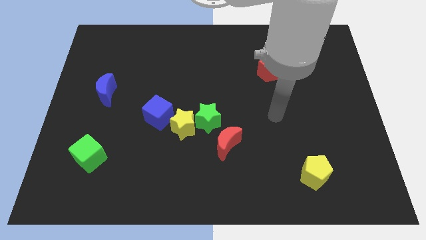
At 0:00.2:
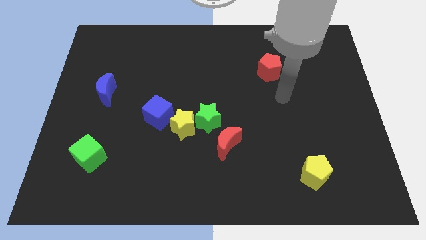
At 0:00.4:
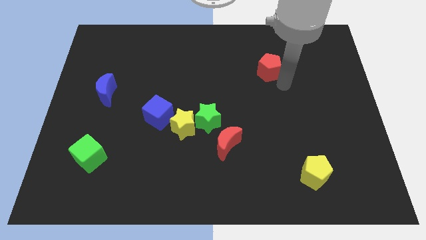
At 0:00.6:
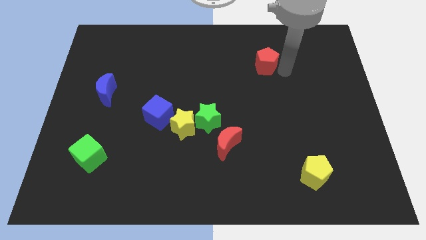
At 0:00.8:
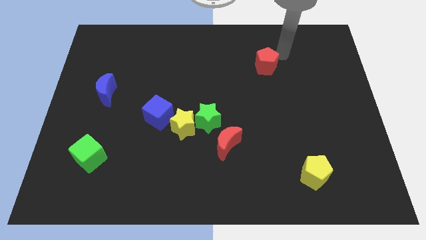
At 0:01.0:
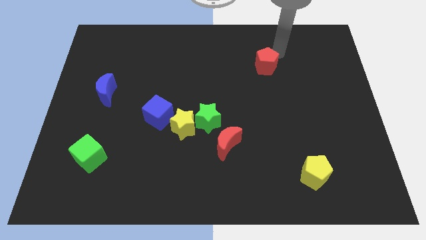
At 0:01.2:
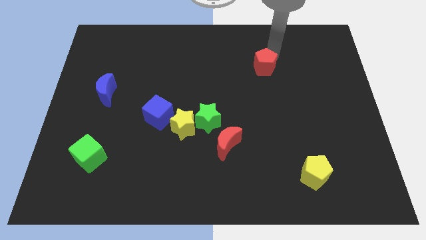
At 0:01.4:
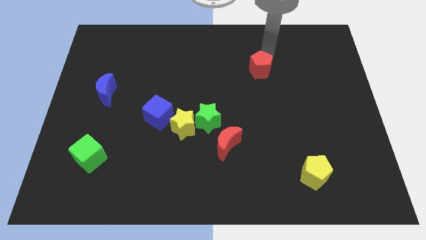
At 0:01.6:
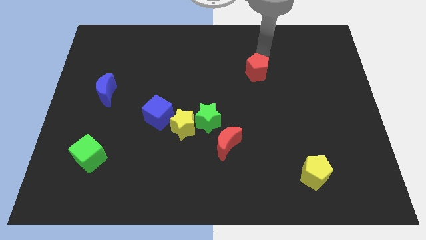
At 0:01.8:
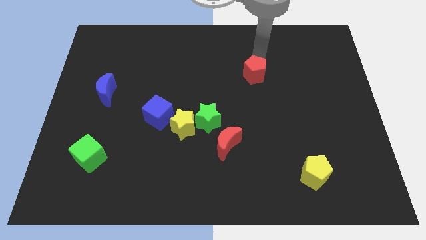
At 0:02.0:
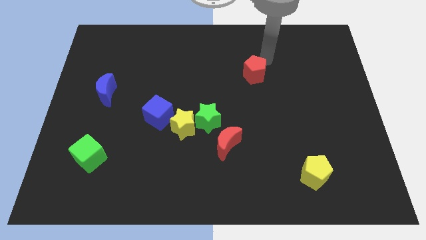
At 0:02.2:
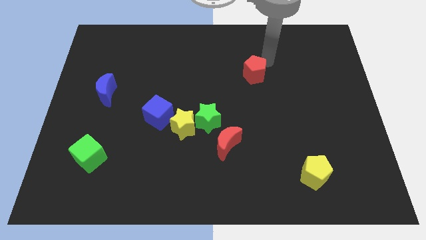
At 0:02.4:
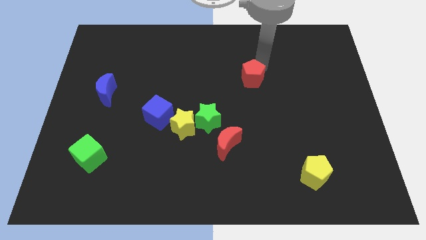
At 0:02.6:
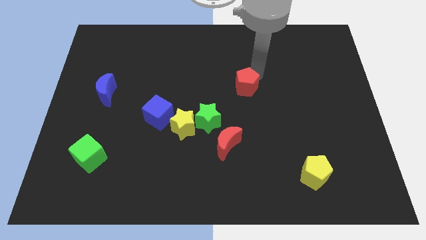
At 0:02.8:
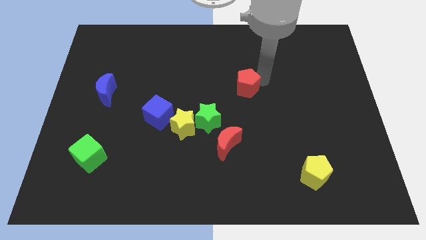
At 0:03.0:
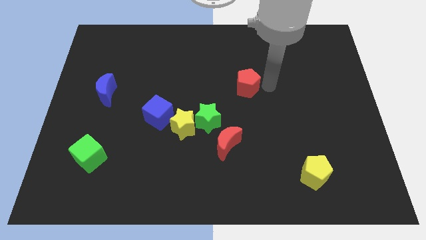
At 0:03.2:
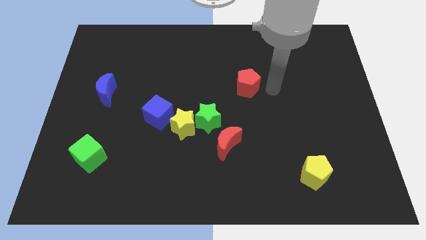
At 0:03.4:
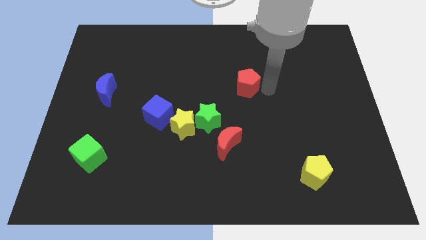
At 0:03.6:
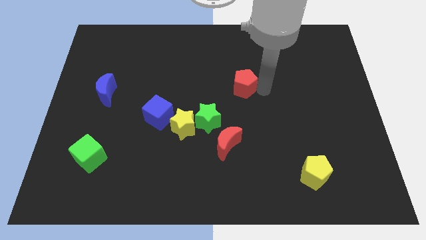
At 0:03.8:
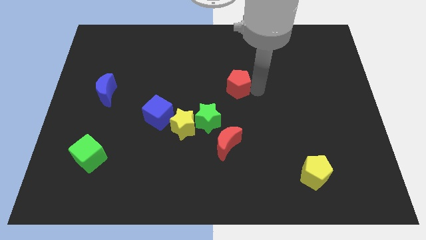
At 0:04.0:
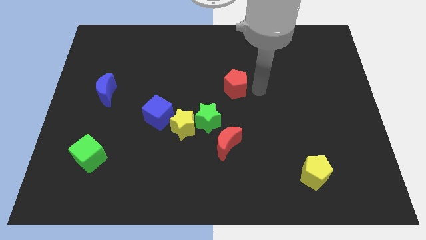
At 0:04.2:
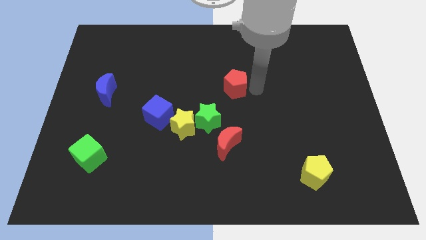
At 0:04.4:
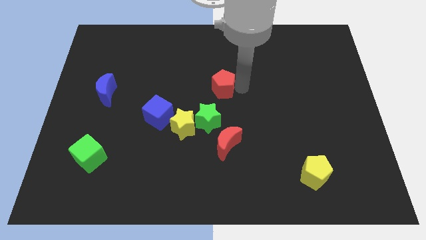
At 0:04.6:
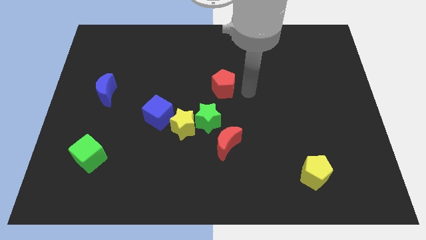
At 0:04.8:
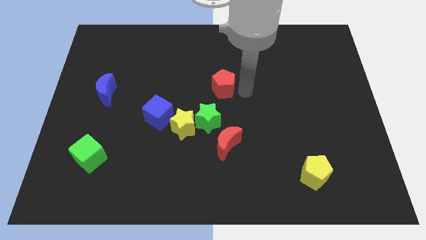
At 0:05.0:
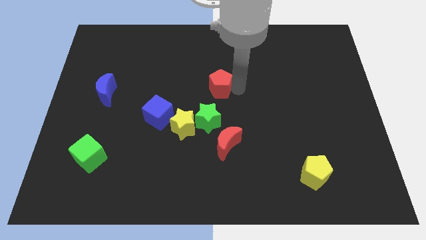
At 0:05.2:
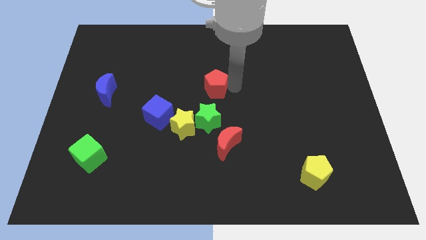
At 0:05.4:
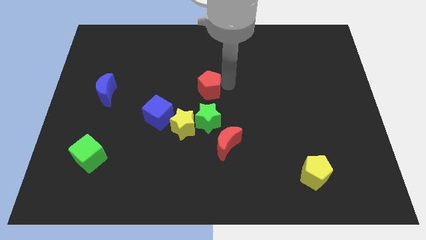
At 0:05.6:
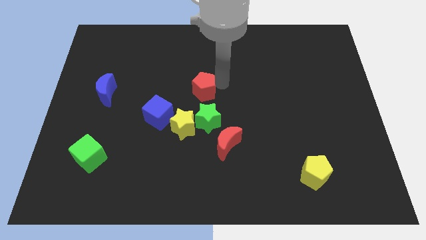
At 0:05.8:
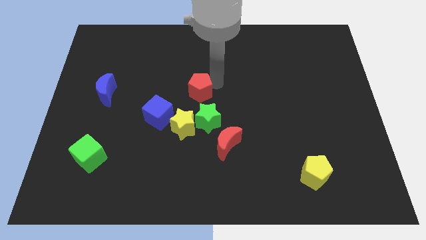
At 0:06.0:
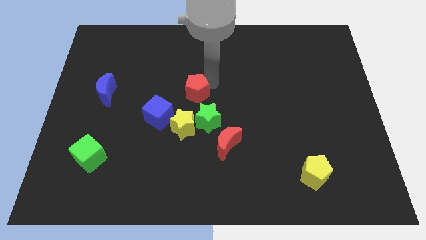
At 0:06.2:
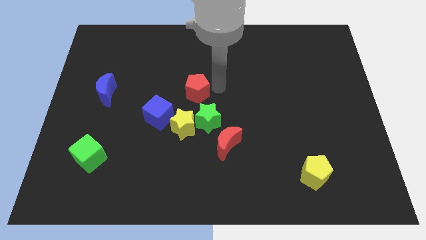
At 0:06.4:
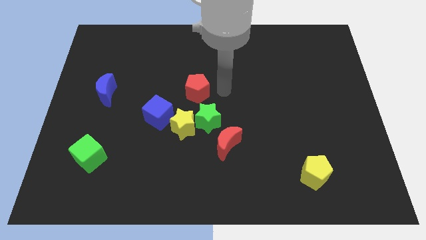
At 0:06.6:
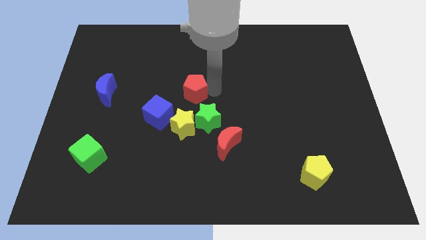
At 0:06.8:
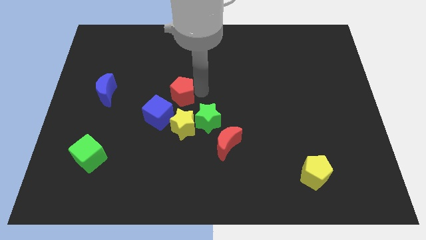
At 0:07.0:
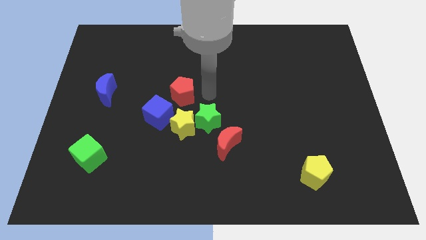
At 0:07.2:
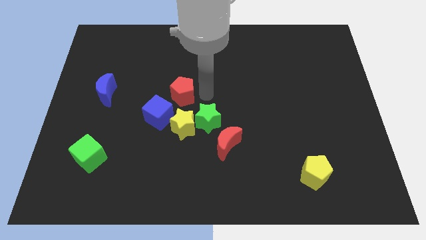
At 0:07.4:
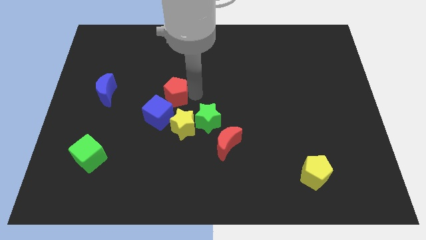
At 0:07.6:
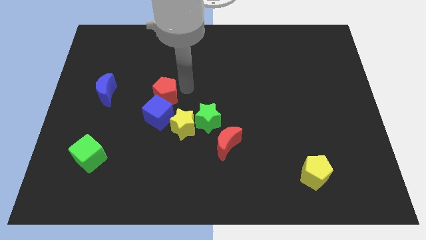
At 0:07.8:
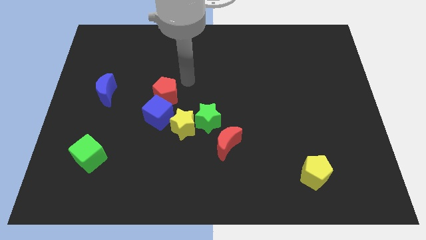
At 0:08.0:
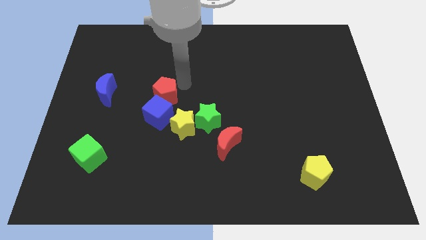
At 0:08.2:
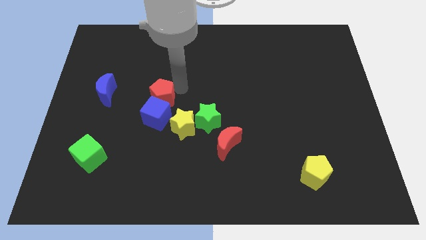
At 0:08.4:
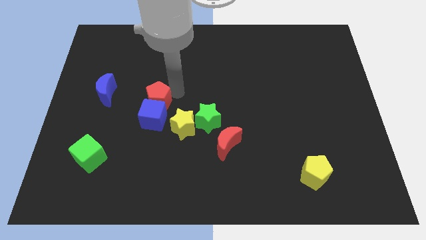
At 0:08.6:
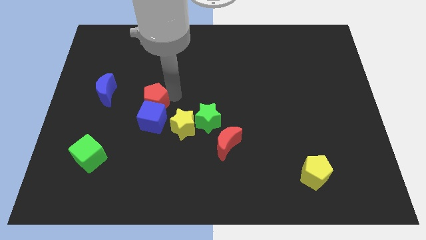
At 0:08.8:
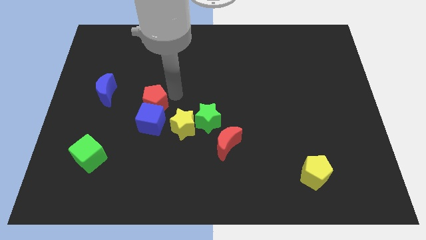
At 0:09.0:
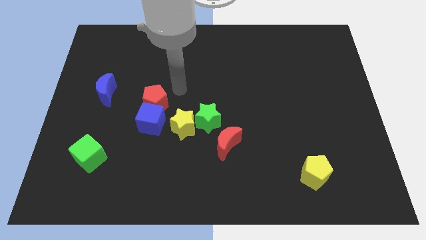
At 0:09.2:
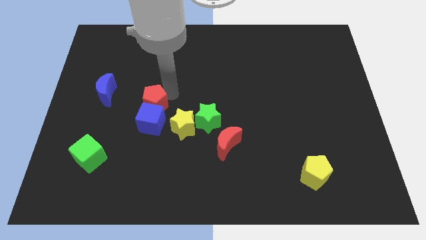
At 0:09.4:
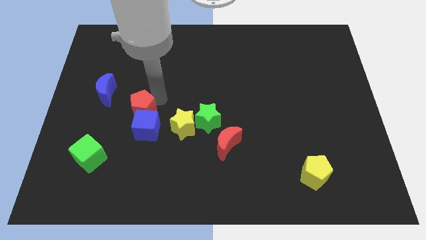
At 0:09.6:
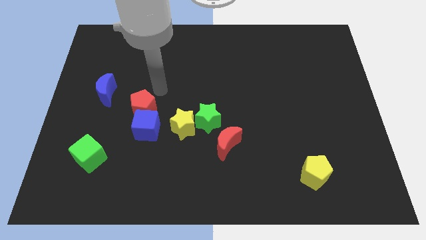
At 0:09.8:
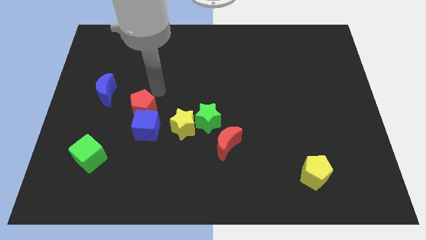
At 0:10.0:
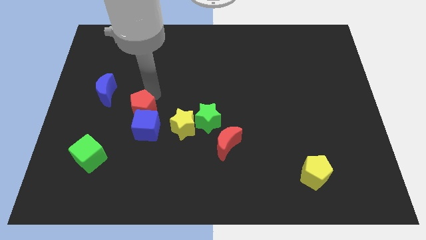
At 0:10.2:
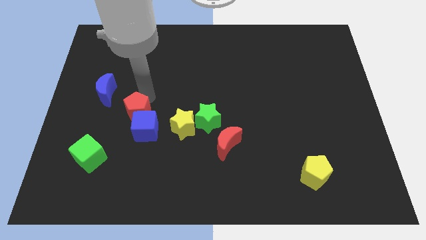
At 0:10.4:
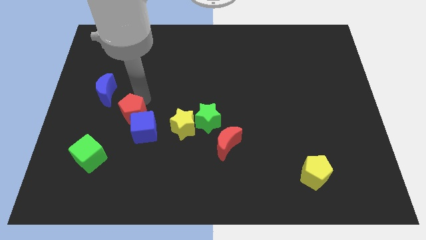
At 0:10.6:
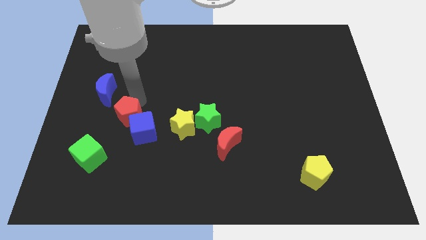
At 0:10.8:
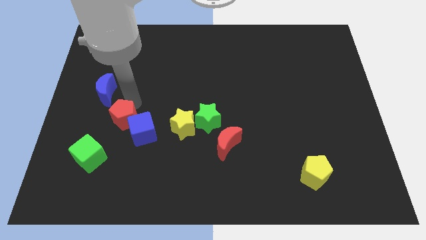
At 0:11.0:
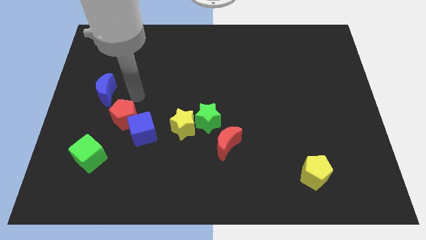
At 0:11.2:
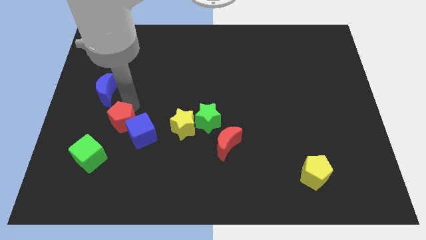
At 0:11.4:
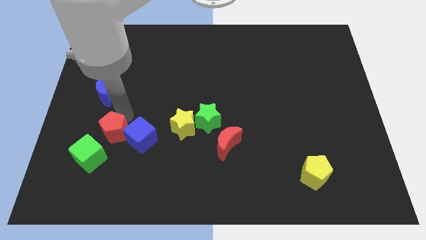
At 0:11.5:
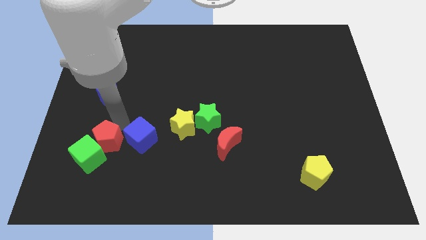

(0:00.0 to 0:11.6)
move the red pentagon towards the green cube

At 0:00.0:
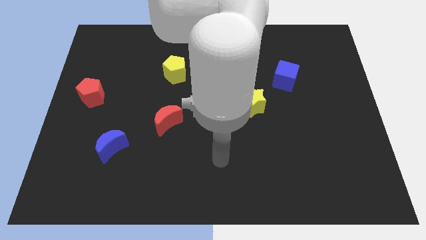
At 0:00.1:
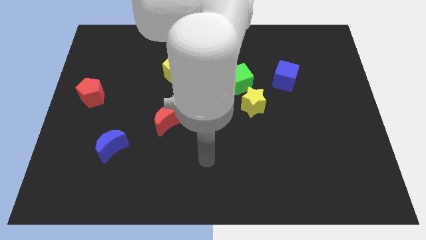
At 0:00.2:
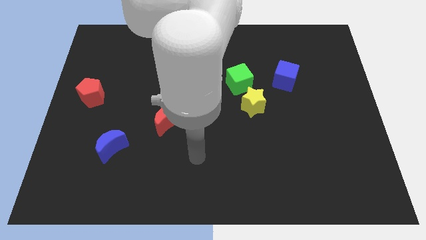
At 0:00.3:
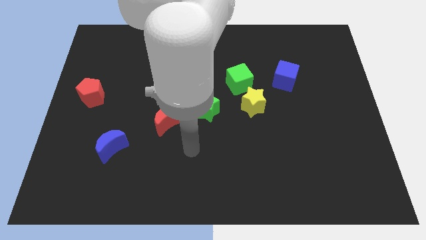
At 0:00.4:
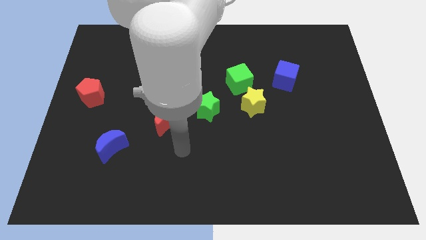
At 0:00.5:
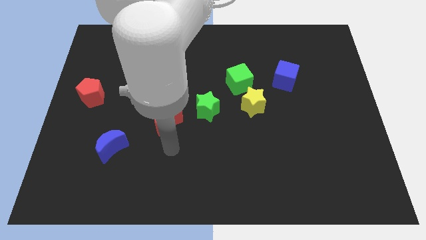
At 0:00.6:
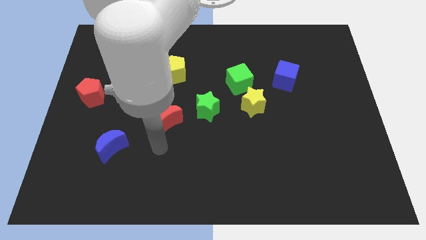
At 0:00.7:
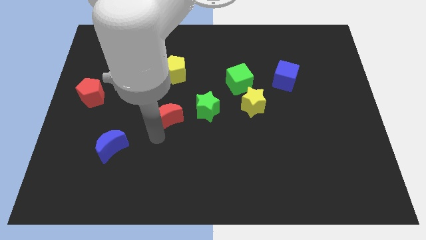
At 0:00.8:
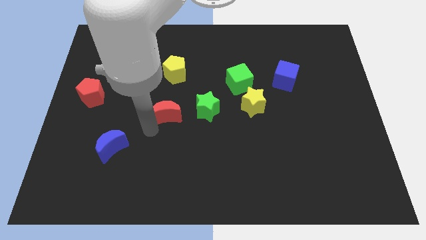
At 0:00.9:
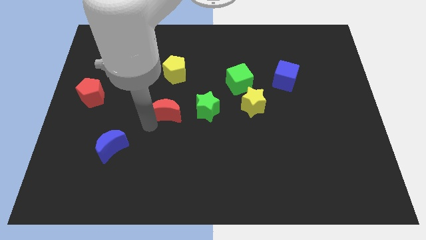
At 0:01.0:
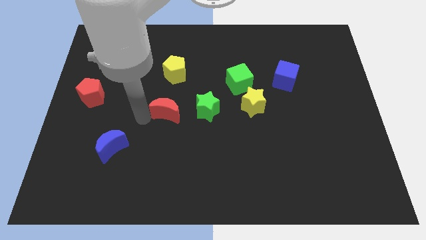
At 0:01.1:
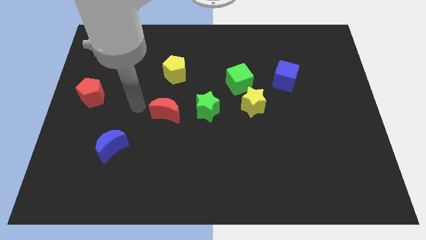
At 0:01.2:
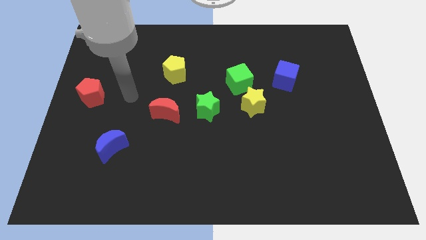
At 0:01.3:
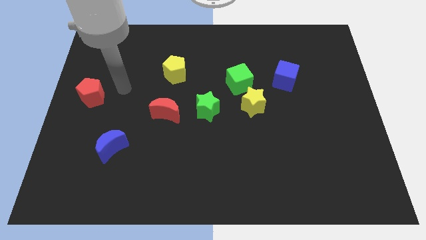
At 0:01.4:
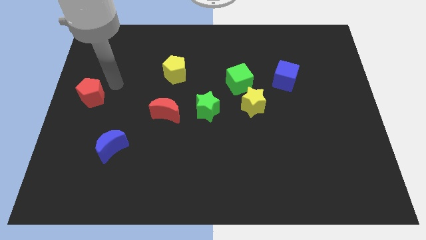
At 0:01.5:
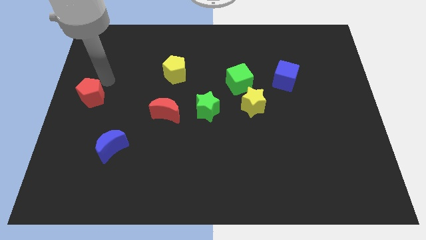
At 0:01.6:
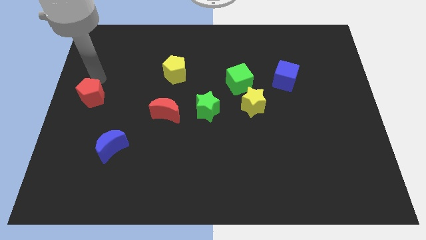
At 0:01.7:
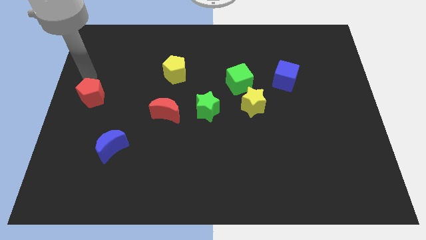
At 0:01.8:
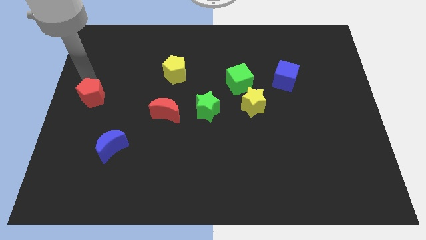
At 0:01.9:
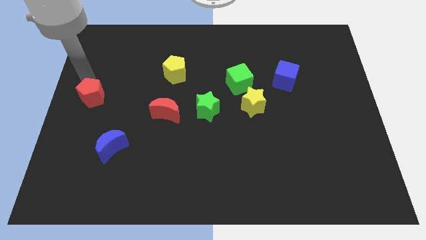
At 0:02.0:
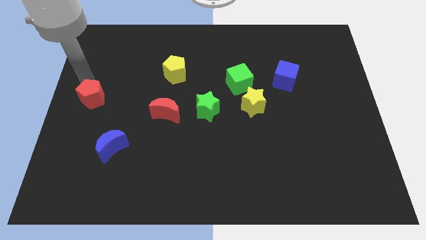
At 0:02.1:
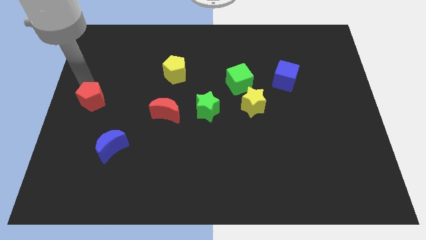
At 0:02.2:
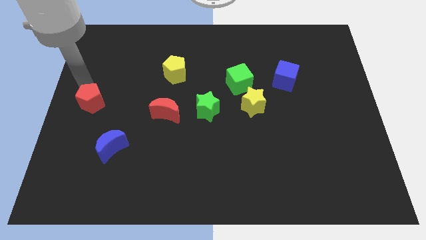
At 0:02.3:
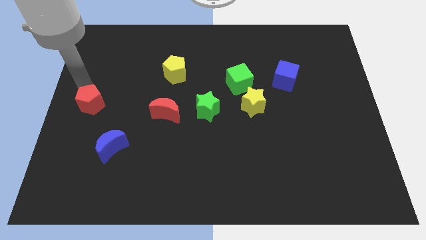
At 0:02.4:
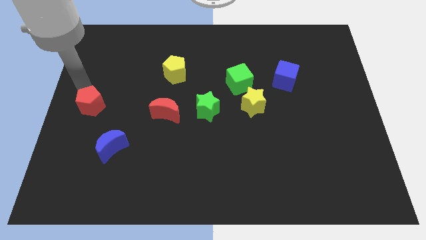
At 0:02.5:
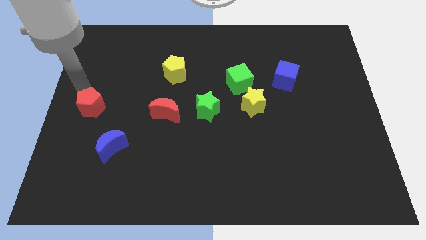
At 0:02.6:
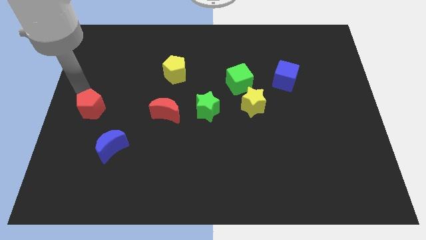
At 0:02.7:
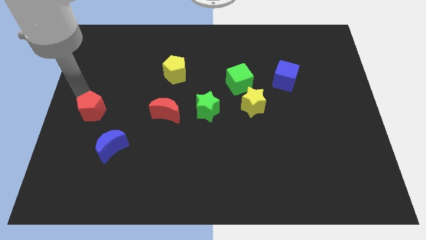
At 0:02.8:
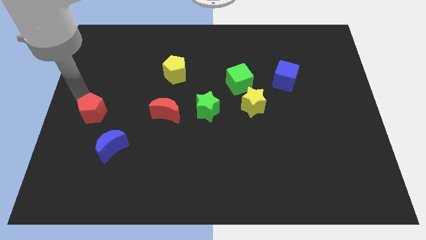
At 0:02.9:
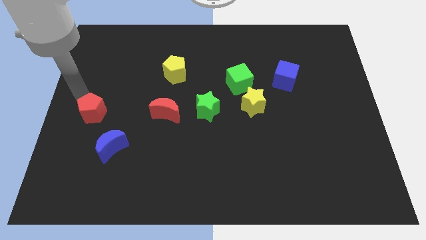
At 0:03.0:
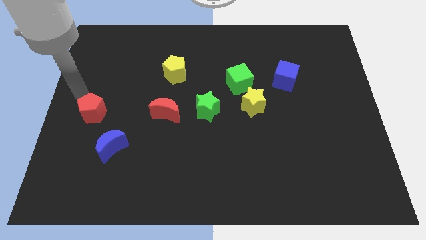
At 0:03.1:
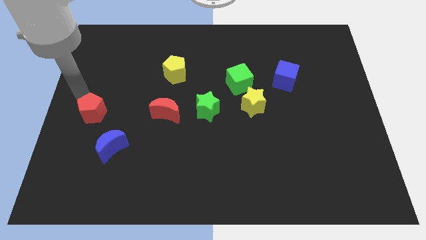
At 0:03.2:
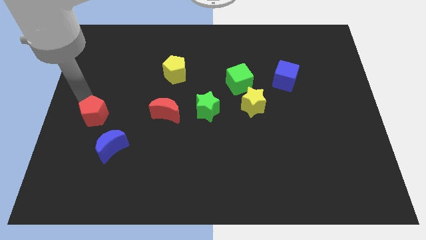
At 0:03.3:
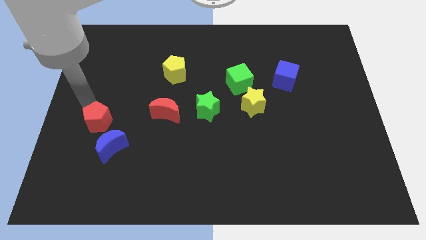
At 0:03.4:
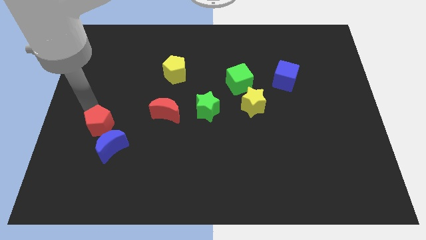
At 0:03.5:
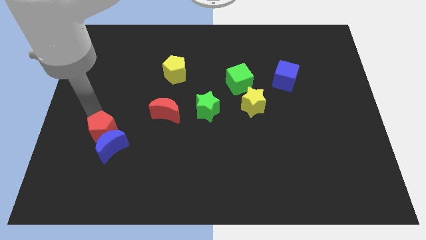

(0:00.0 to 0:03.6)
slide the red pentagon to the blue moon
